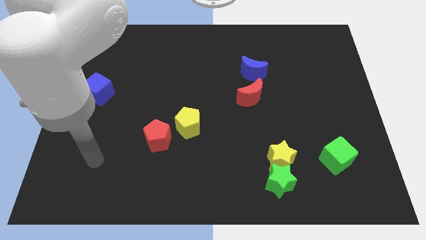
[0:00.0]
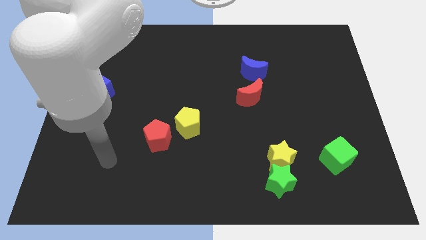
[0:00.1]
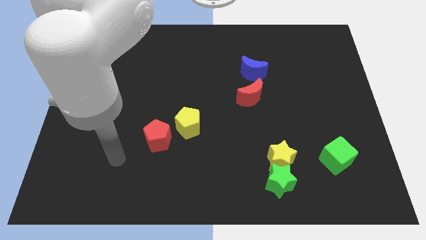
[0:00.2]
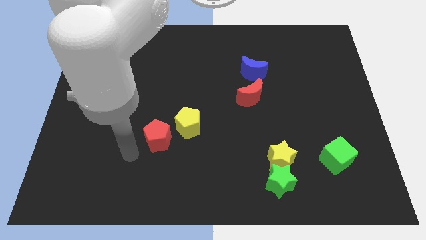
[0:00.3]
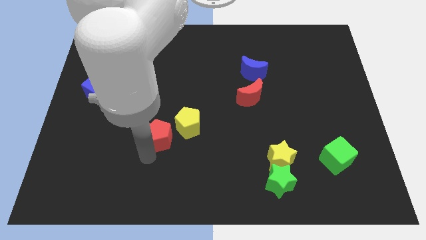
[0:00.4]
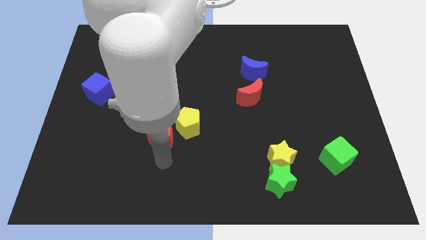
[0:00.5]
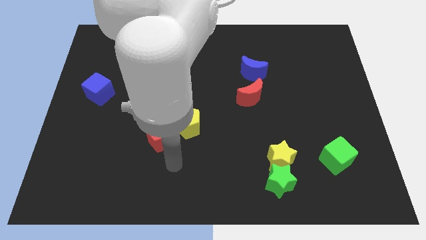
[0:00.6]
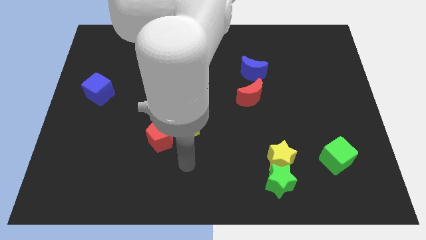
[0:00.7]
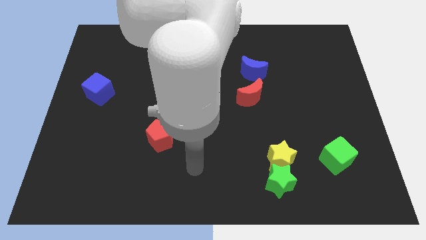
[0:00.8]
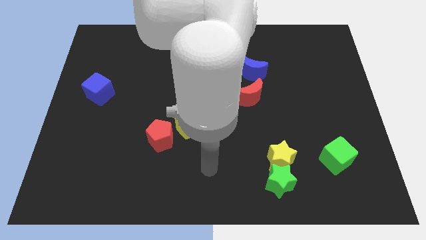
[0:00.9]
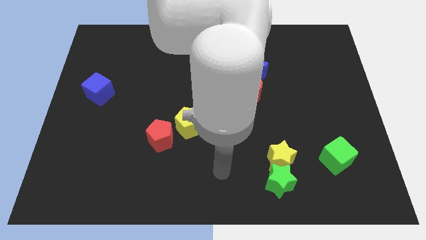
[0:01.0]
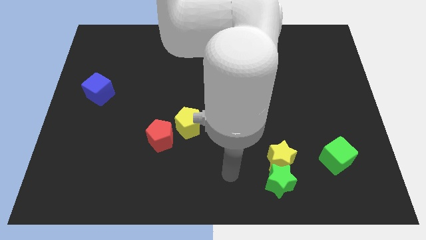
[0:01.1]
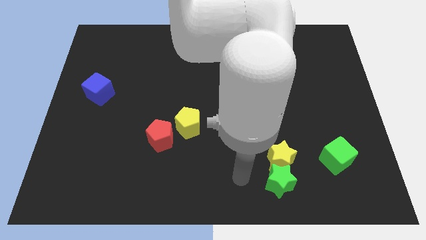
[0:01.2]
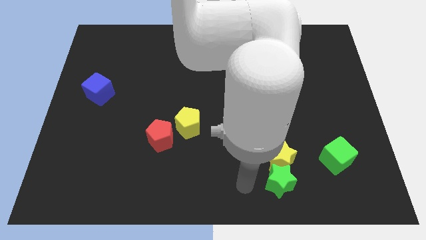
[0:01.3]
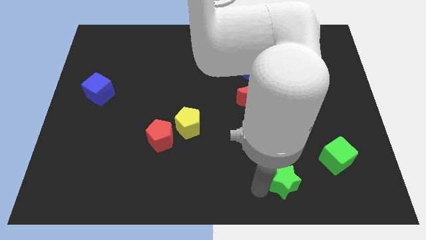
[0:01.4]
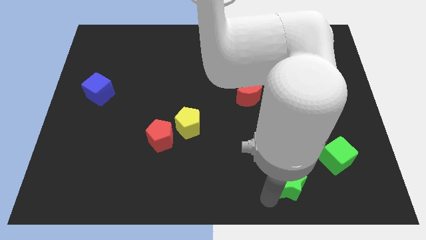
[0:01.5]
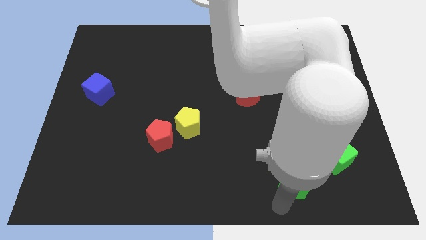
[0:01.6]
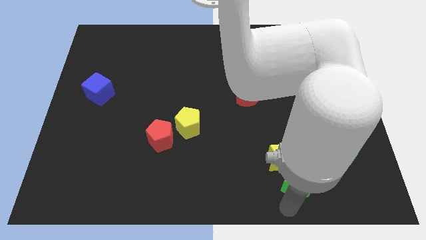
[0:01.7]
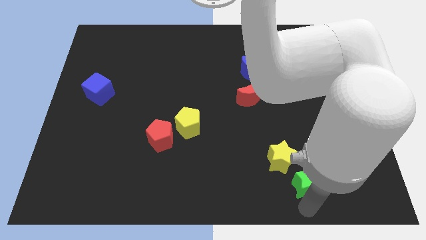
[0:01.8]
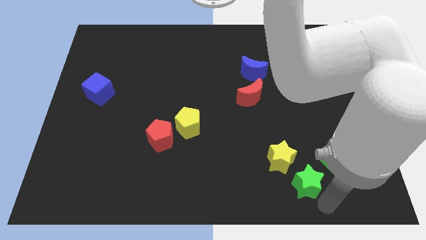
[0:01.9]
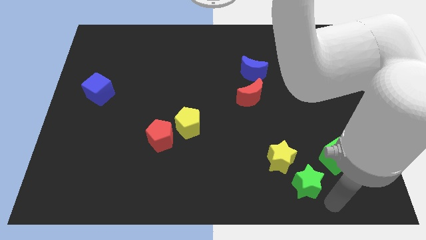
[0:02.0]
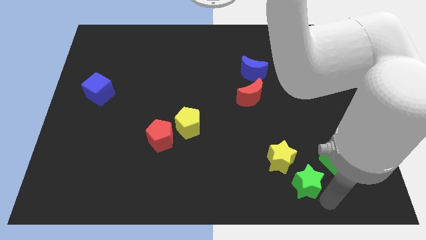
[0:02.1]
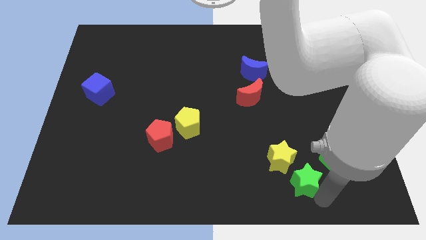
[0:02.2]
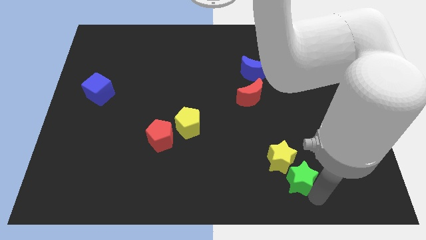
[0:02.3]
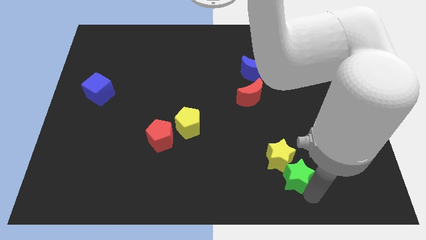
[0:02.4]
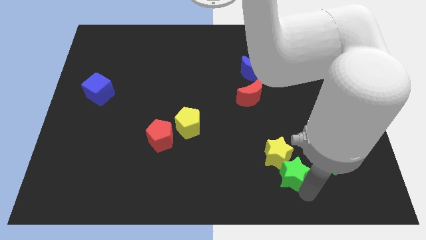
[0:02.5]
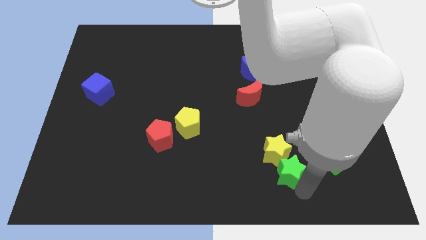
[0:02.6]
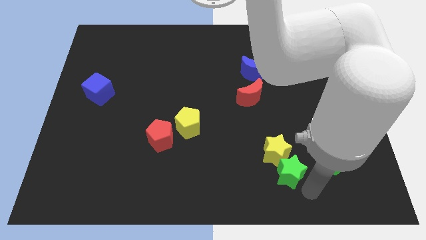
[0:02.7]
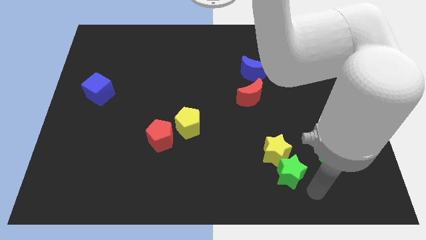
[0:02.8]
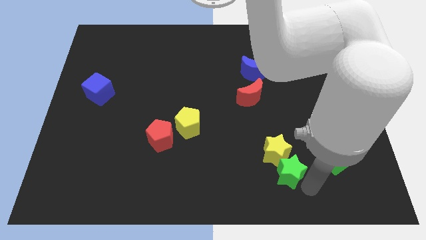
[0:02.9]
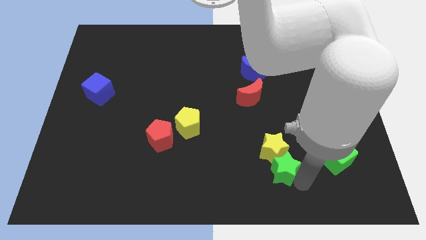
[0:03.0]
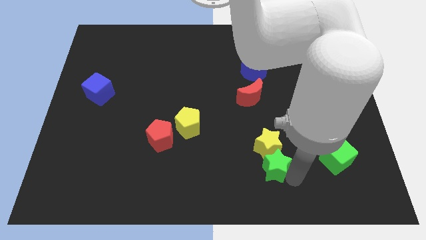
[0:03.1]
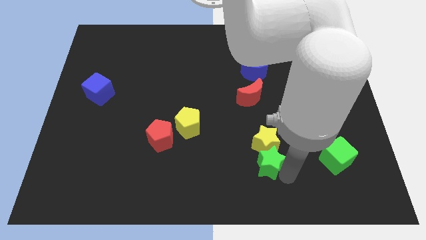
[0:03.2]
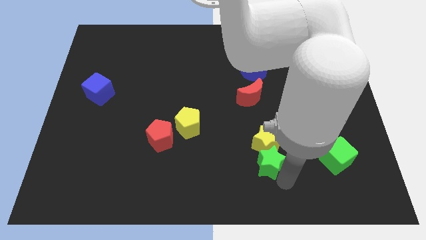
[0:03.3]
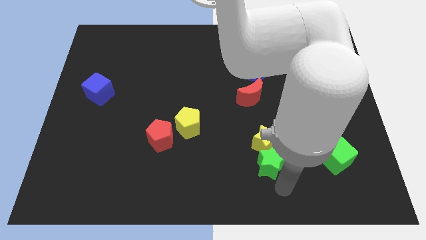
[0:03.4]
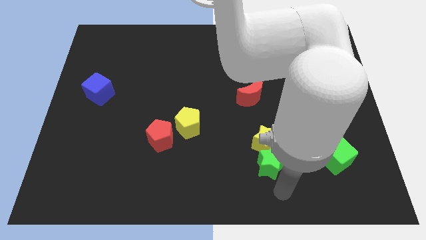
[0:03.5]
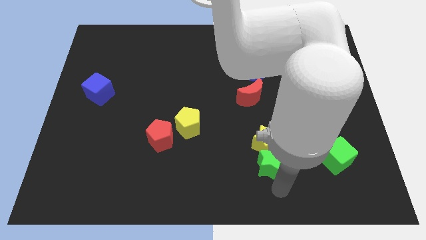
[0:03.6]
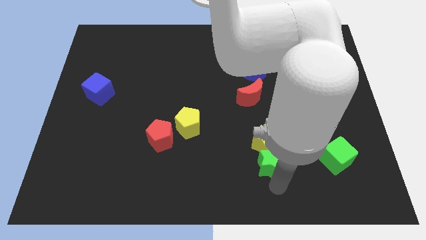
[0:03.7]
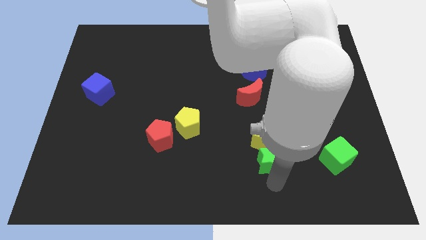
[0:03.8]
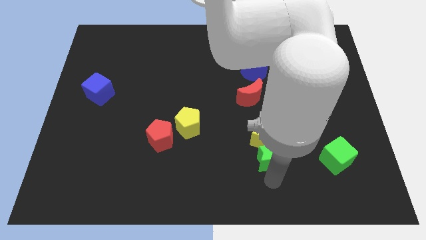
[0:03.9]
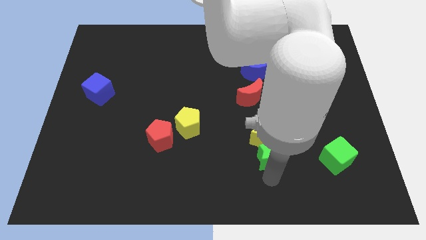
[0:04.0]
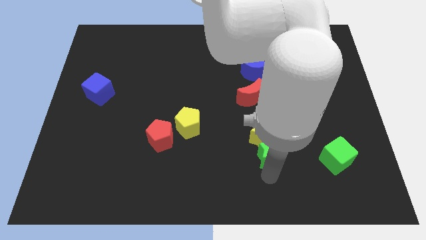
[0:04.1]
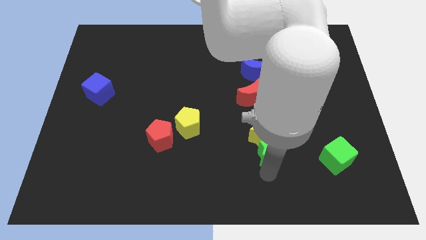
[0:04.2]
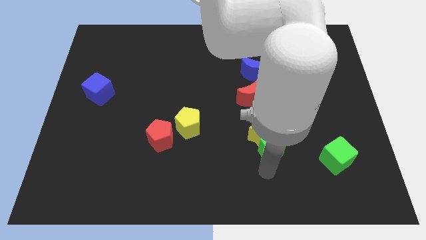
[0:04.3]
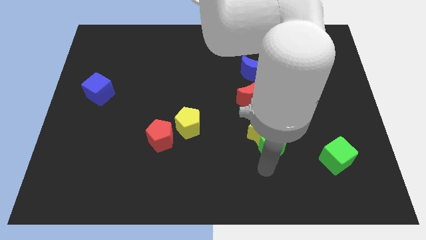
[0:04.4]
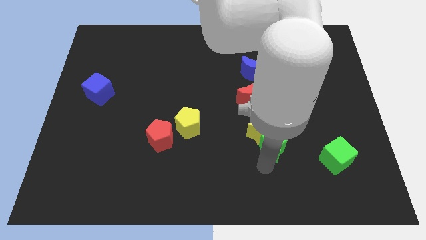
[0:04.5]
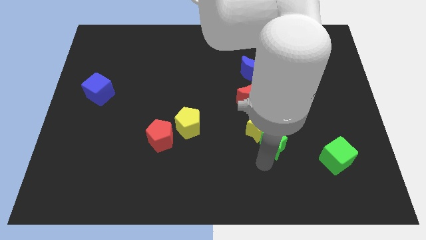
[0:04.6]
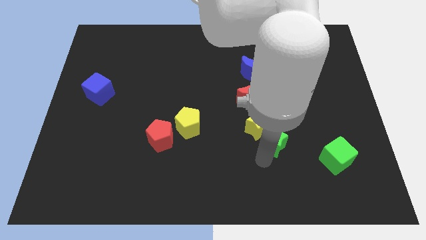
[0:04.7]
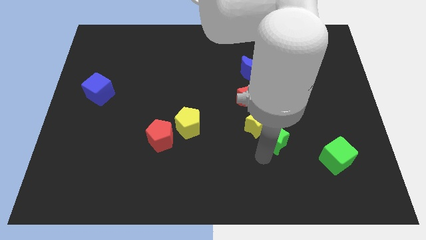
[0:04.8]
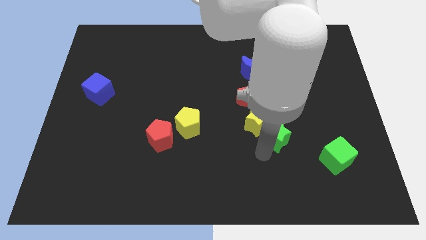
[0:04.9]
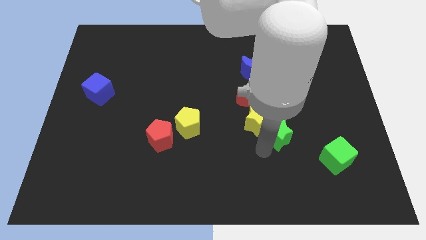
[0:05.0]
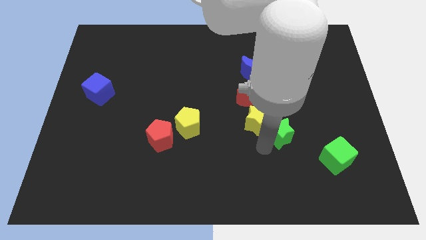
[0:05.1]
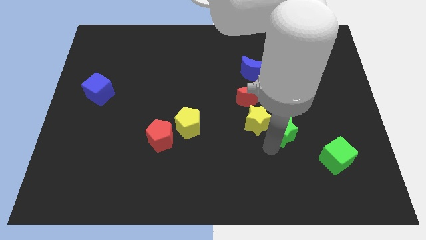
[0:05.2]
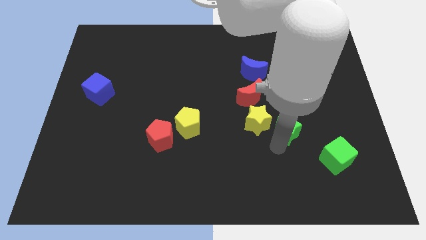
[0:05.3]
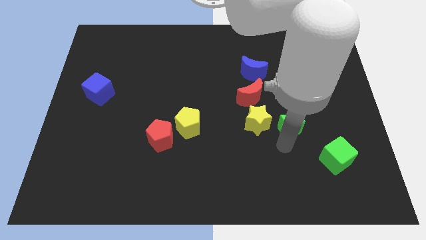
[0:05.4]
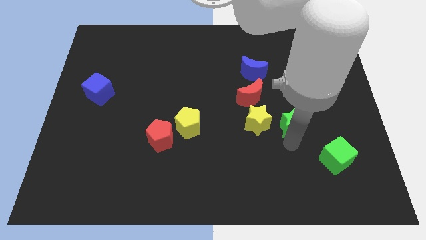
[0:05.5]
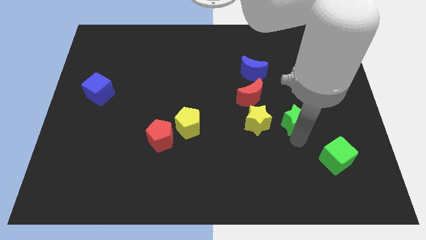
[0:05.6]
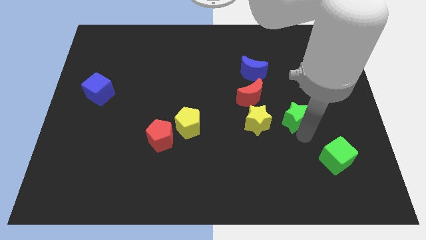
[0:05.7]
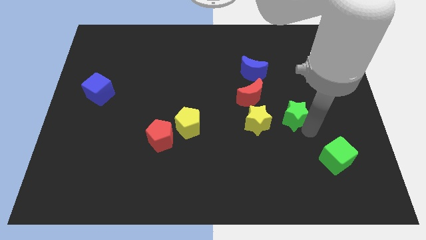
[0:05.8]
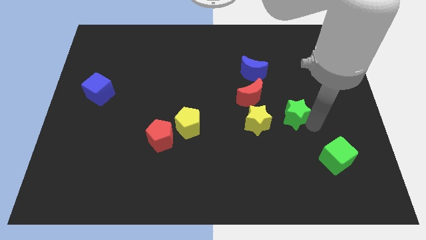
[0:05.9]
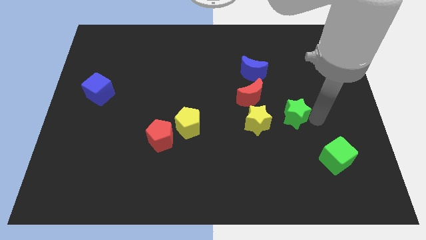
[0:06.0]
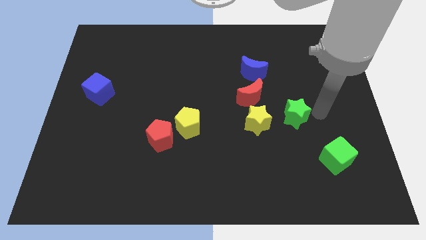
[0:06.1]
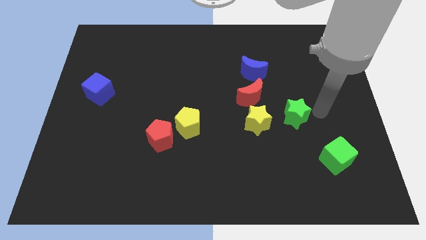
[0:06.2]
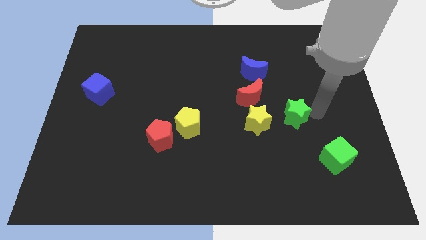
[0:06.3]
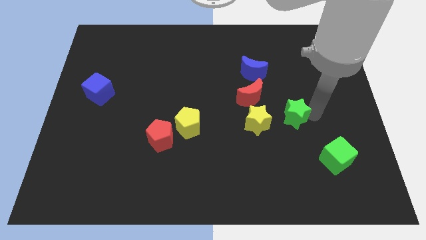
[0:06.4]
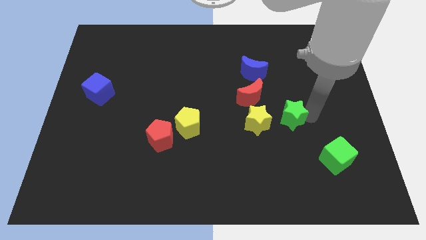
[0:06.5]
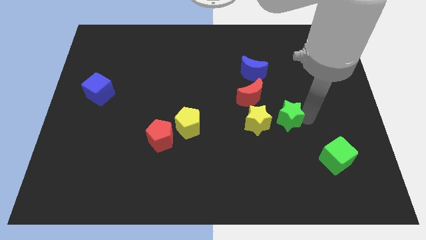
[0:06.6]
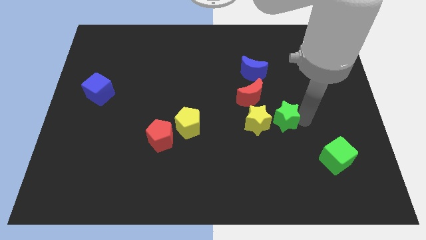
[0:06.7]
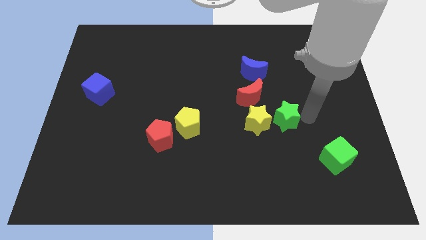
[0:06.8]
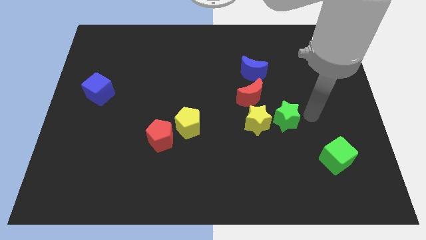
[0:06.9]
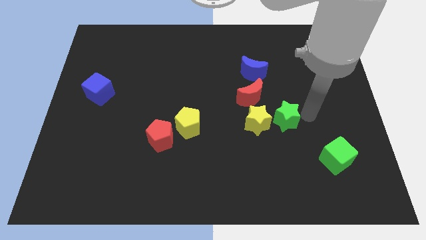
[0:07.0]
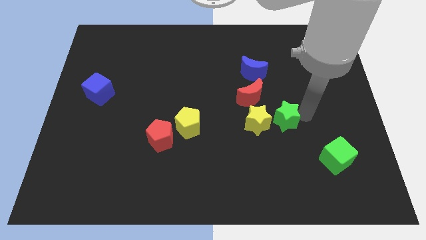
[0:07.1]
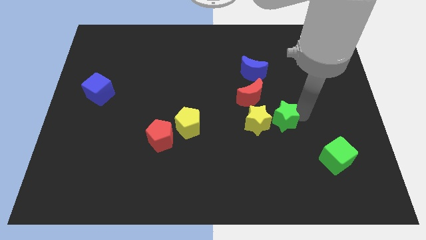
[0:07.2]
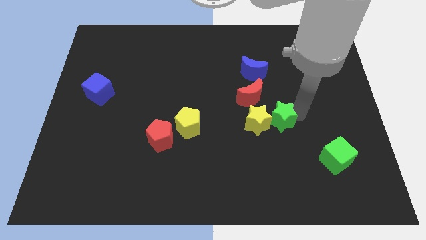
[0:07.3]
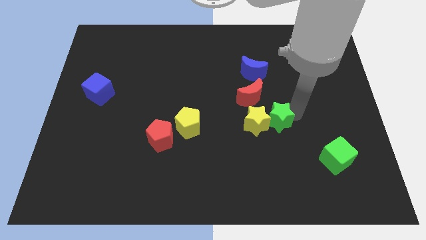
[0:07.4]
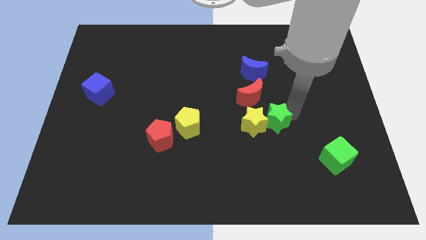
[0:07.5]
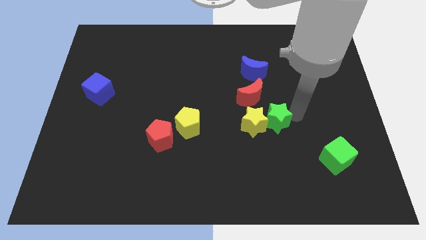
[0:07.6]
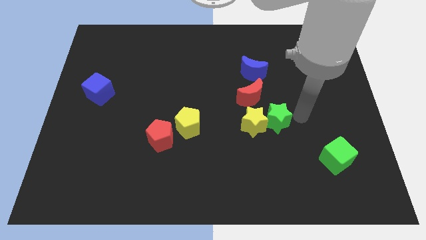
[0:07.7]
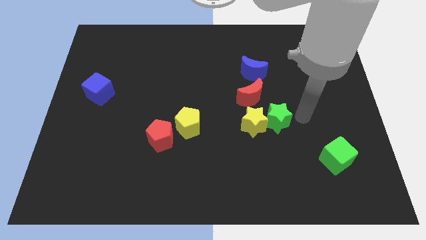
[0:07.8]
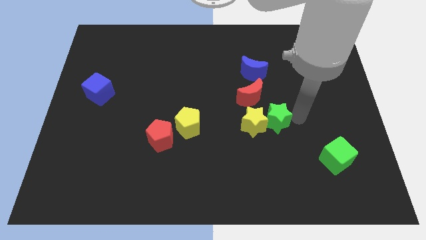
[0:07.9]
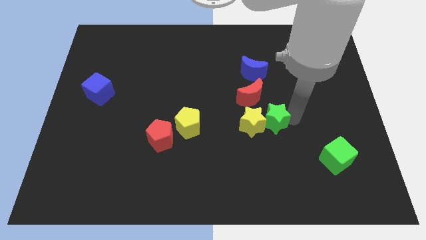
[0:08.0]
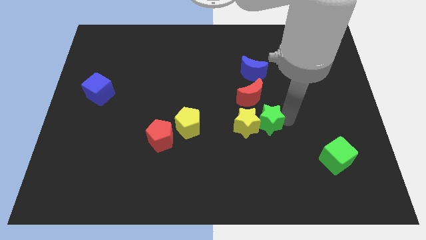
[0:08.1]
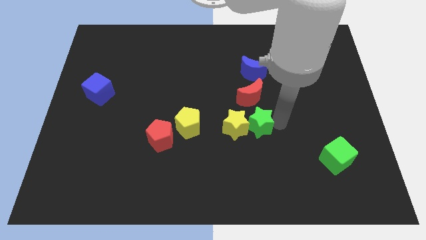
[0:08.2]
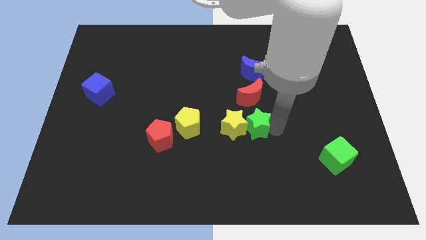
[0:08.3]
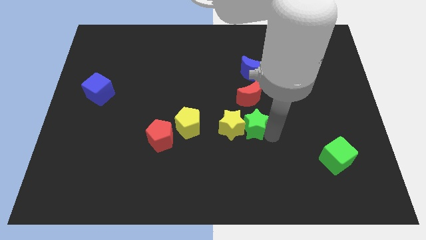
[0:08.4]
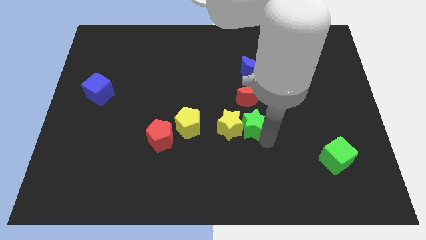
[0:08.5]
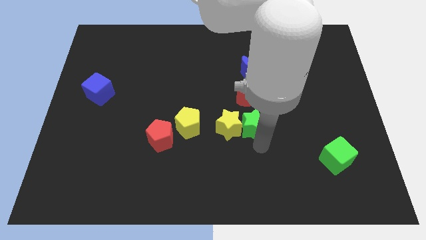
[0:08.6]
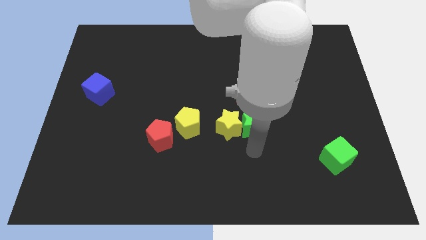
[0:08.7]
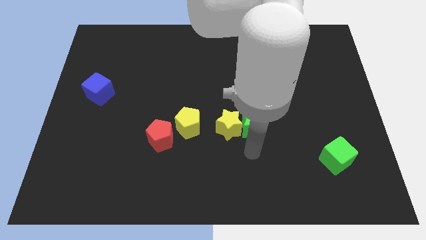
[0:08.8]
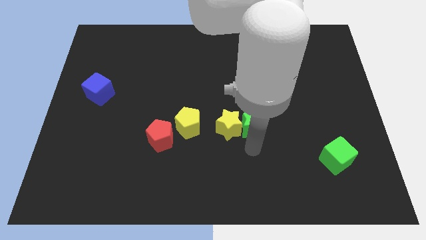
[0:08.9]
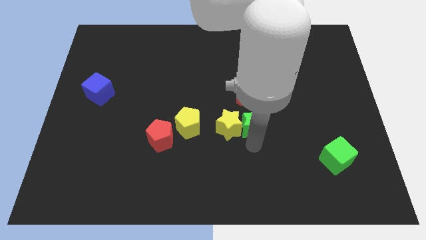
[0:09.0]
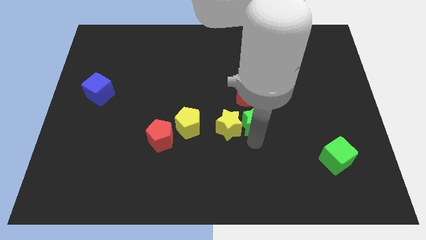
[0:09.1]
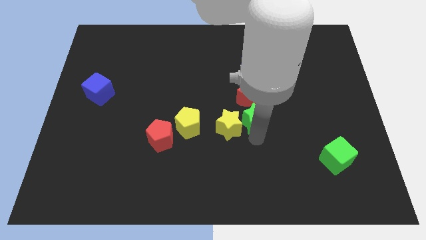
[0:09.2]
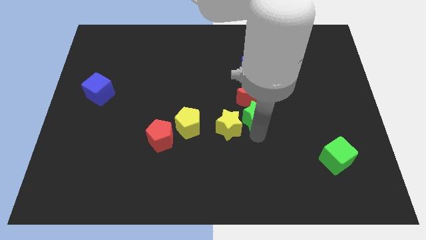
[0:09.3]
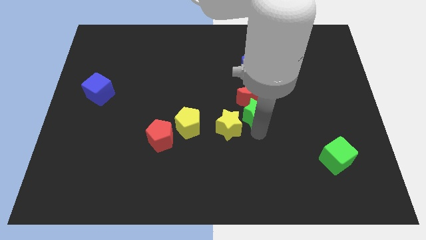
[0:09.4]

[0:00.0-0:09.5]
move the green star close to the red moon
